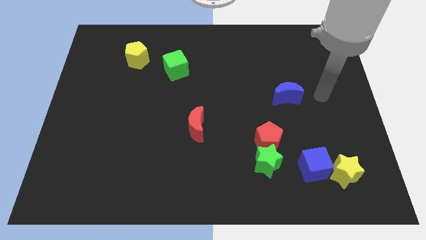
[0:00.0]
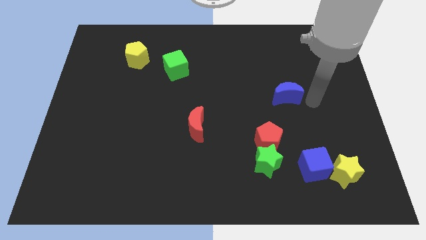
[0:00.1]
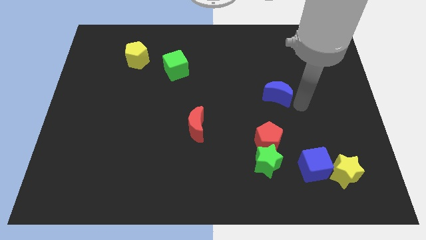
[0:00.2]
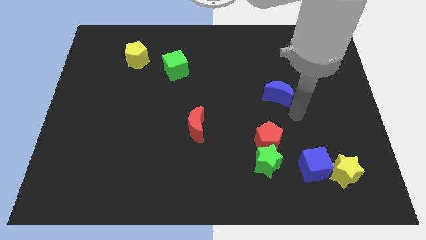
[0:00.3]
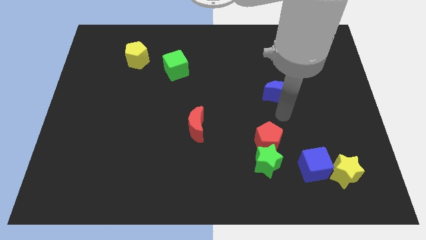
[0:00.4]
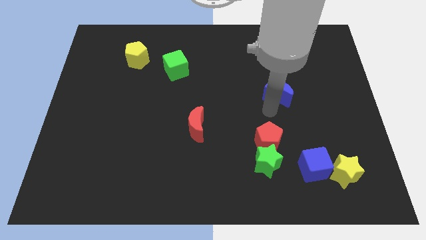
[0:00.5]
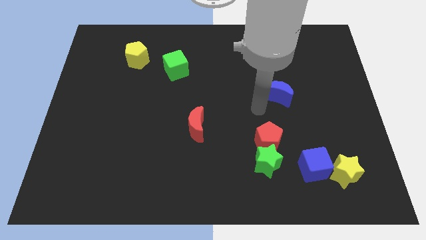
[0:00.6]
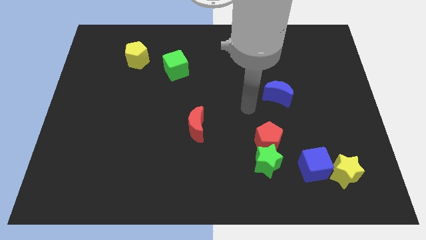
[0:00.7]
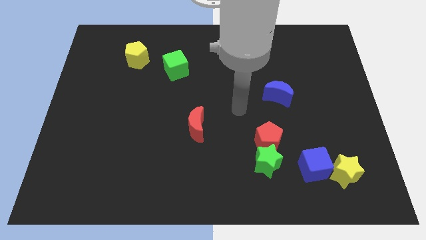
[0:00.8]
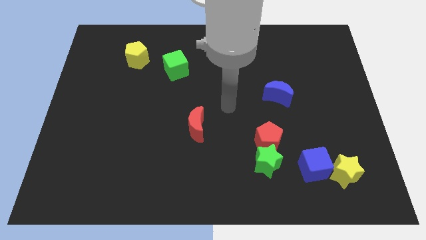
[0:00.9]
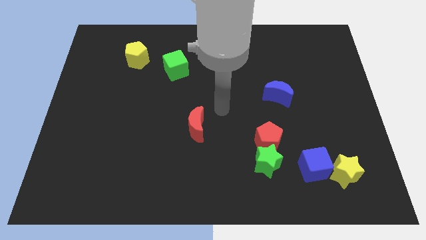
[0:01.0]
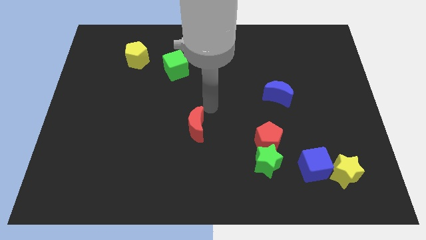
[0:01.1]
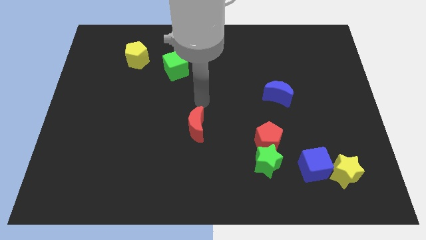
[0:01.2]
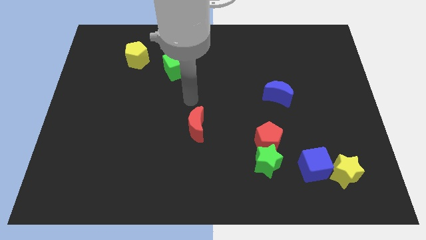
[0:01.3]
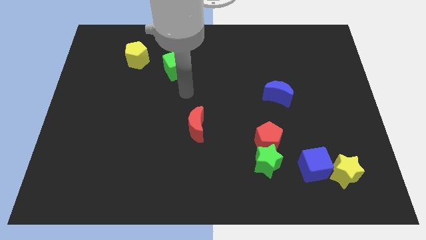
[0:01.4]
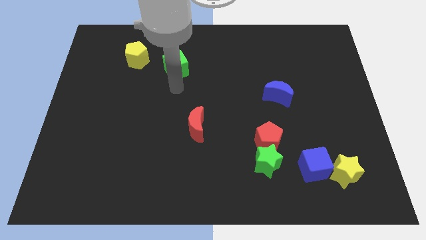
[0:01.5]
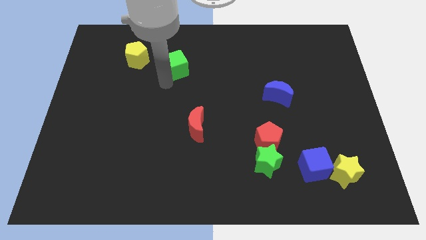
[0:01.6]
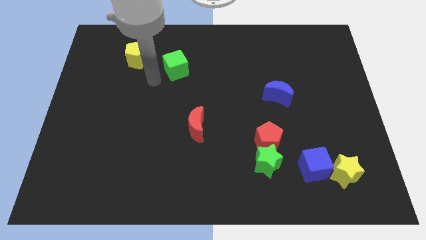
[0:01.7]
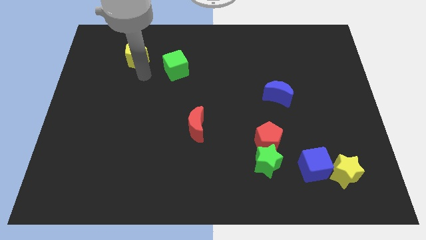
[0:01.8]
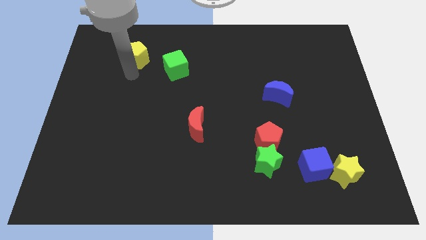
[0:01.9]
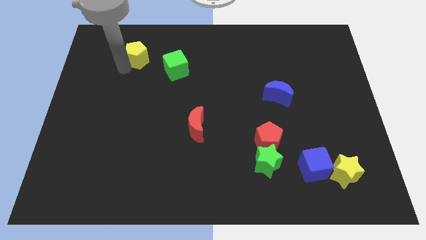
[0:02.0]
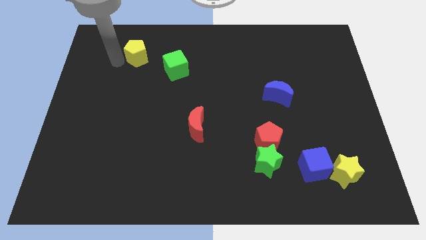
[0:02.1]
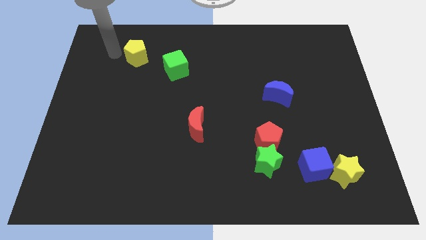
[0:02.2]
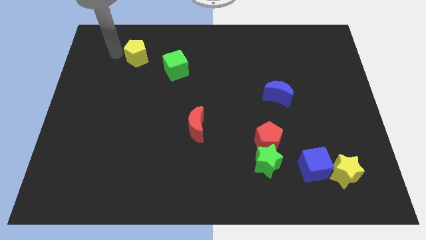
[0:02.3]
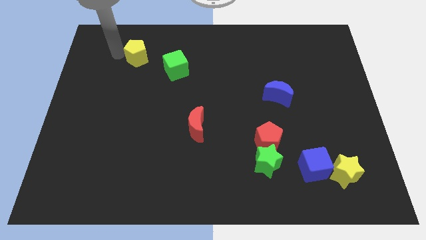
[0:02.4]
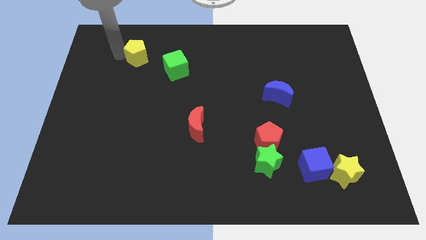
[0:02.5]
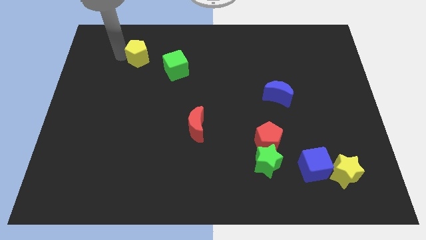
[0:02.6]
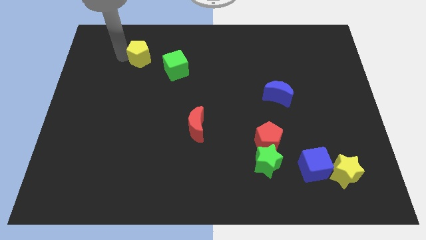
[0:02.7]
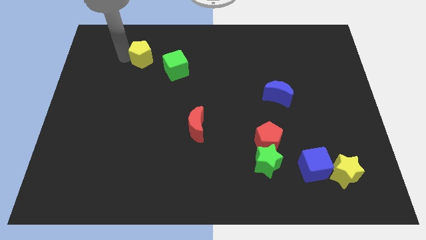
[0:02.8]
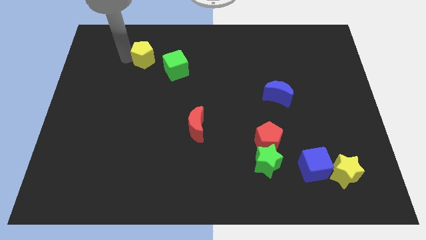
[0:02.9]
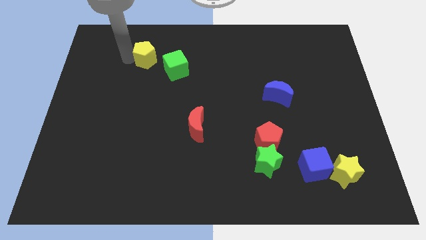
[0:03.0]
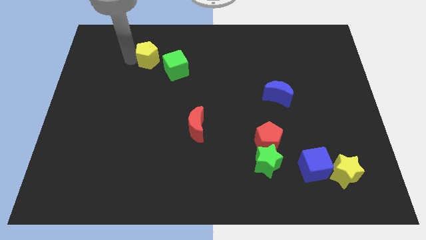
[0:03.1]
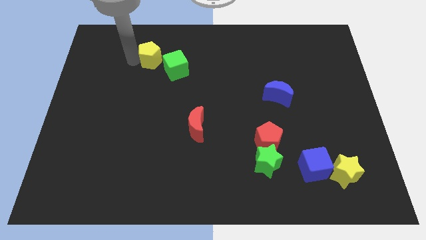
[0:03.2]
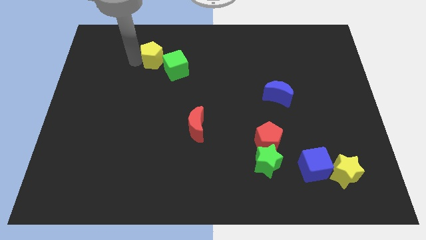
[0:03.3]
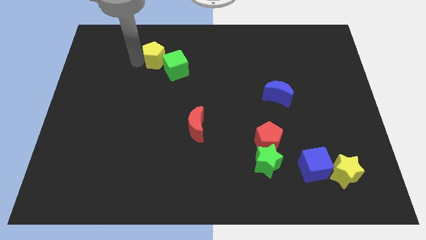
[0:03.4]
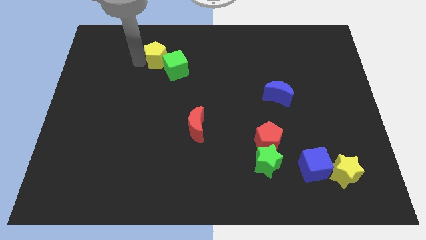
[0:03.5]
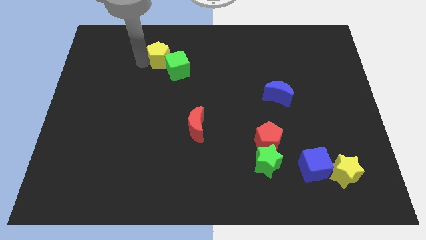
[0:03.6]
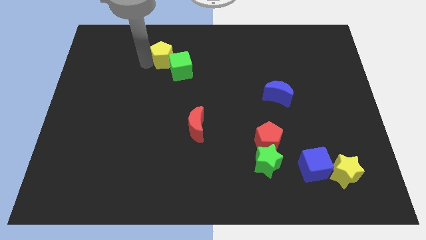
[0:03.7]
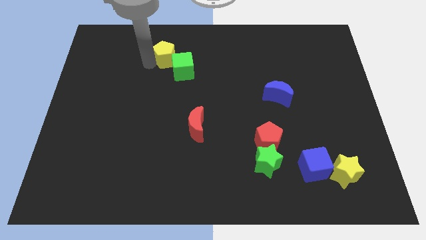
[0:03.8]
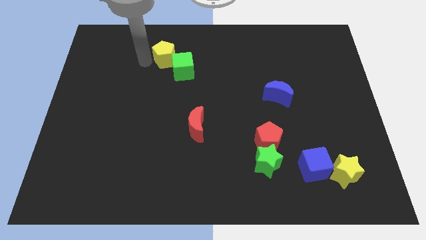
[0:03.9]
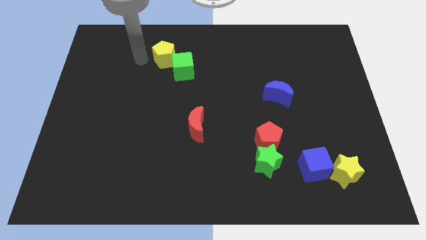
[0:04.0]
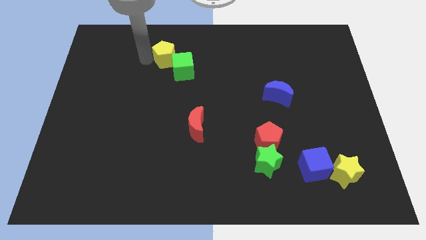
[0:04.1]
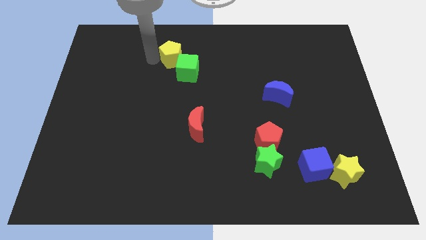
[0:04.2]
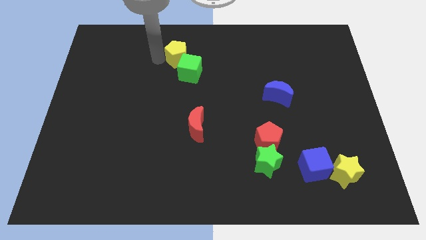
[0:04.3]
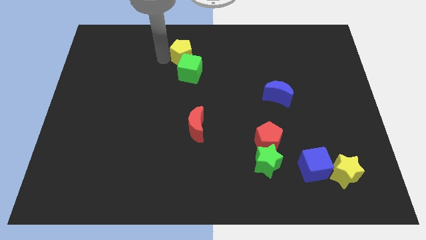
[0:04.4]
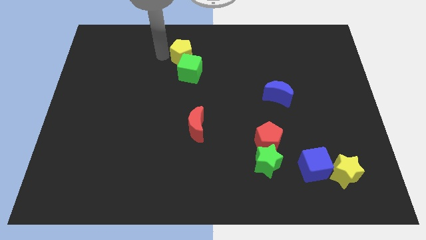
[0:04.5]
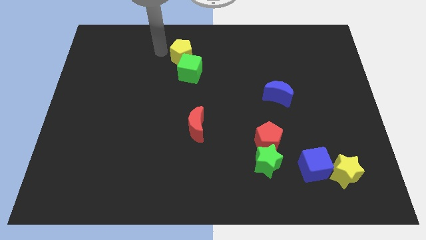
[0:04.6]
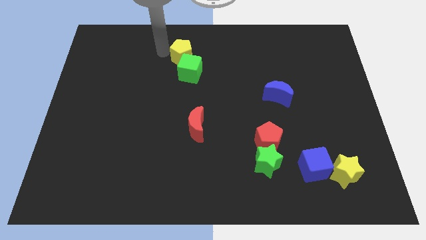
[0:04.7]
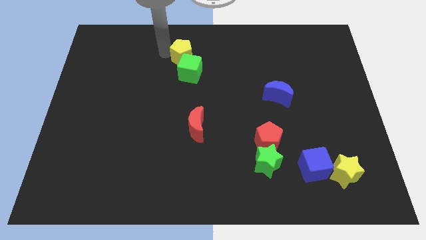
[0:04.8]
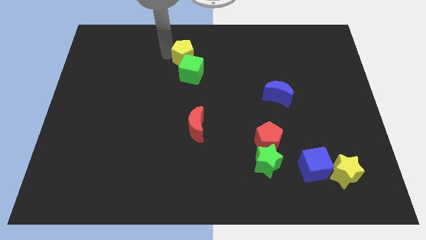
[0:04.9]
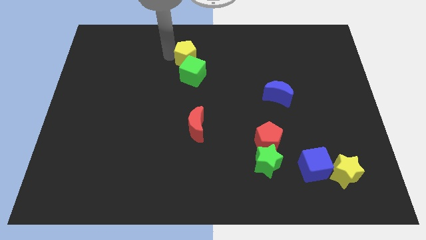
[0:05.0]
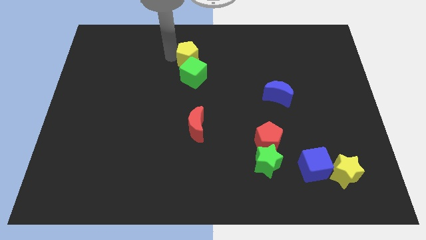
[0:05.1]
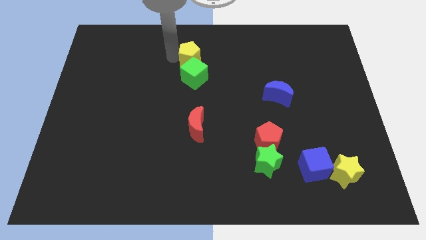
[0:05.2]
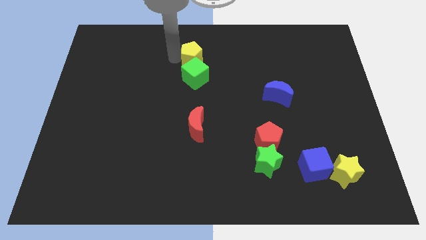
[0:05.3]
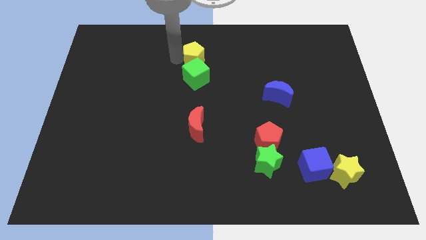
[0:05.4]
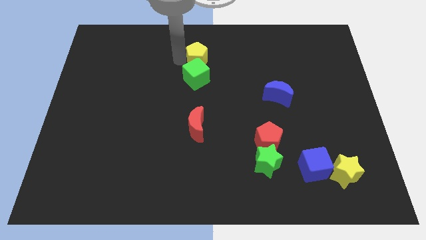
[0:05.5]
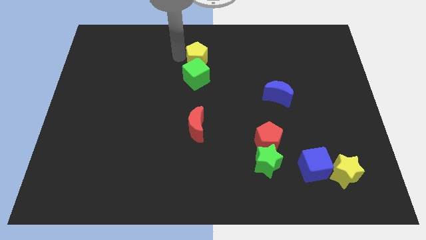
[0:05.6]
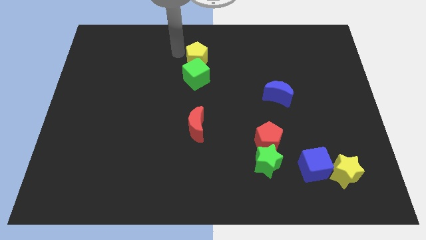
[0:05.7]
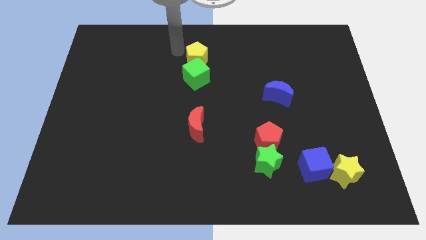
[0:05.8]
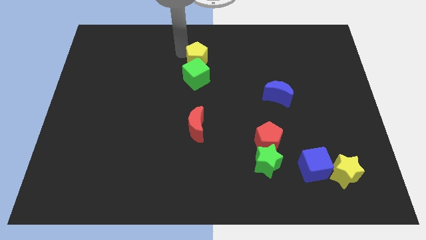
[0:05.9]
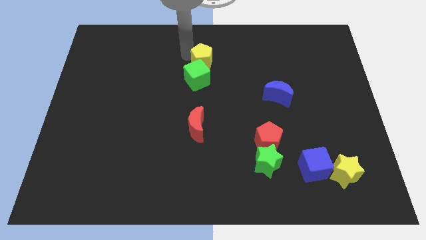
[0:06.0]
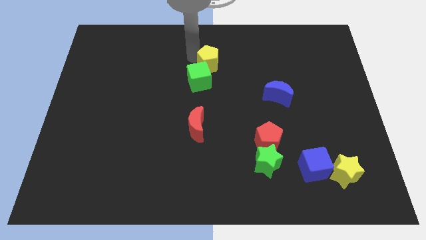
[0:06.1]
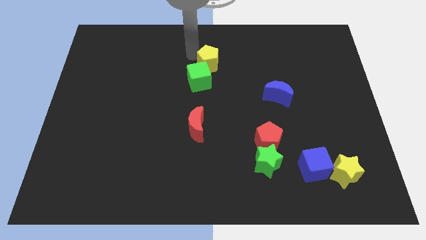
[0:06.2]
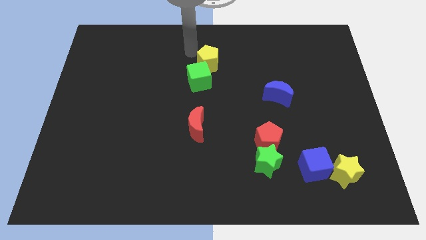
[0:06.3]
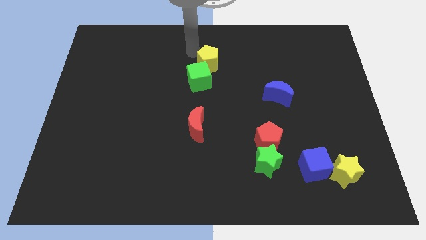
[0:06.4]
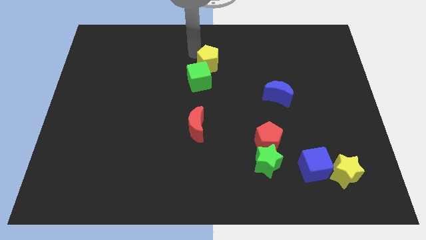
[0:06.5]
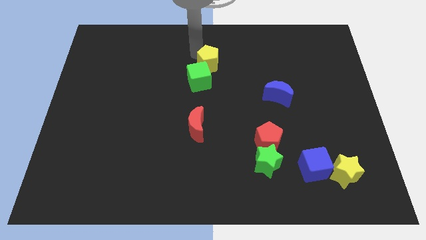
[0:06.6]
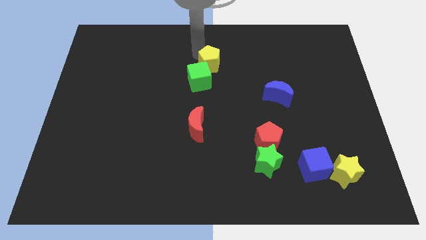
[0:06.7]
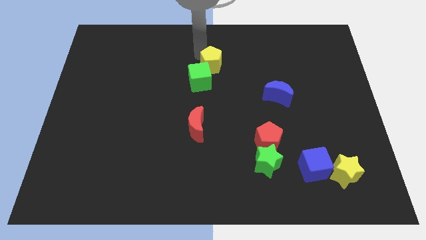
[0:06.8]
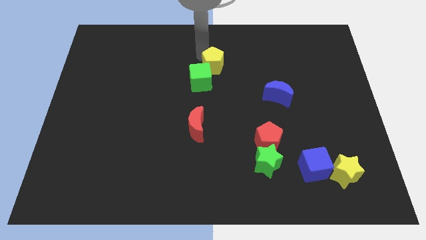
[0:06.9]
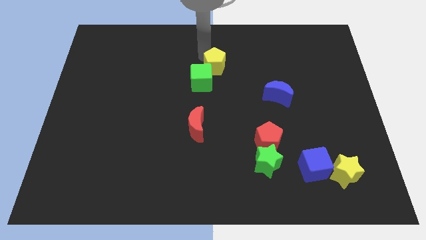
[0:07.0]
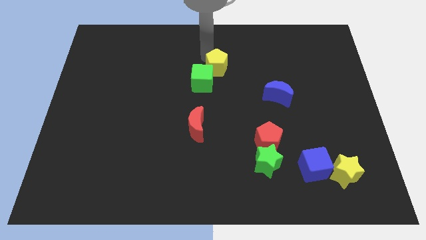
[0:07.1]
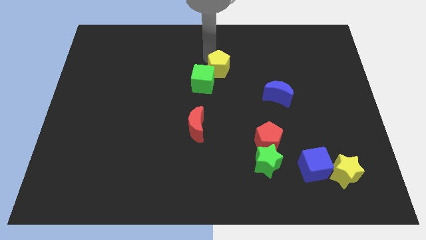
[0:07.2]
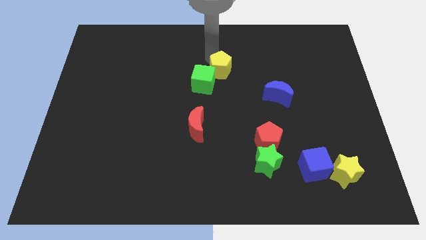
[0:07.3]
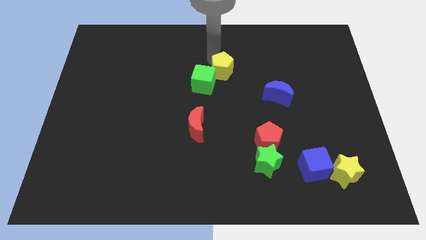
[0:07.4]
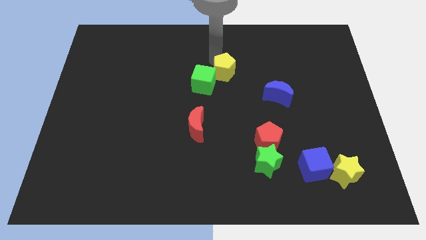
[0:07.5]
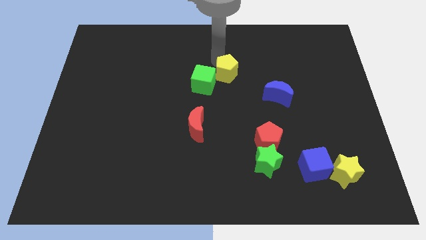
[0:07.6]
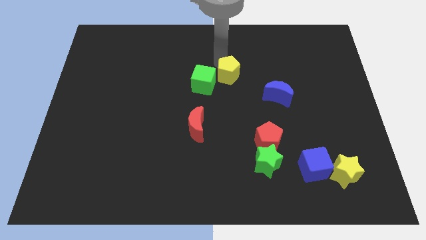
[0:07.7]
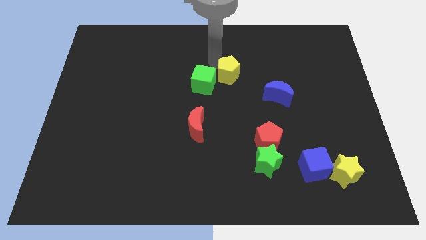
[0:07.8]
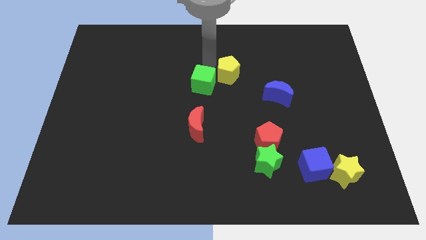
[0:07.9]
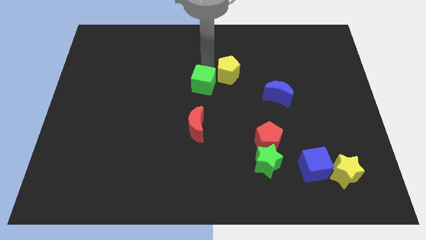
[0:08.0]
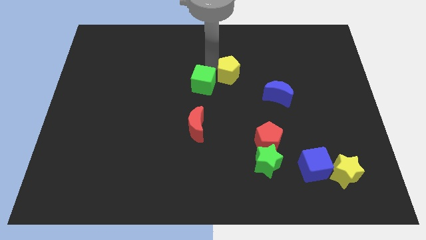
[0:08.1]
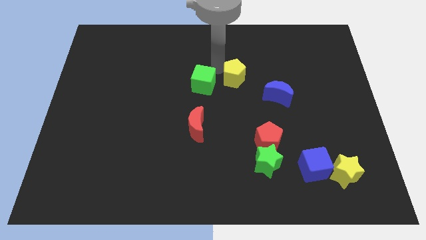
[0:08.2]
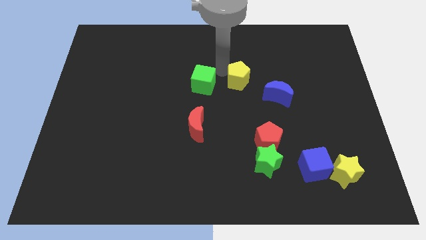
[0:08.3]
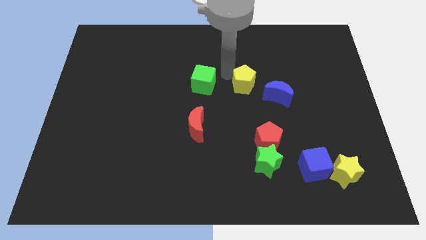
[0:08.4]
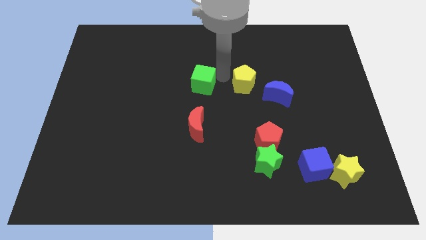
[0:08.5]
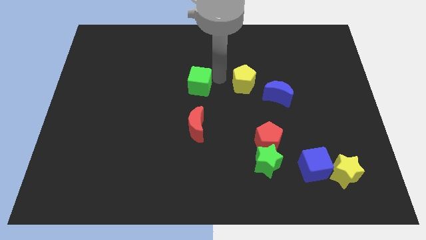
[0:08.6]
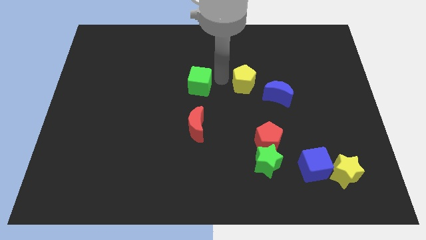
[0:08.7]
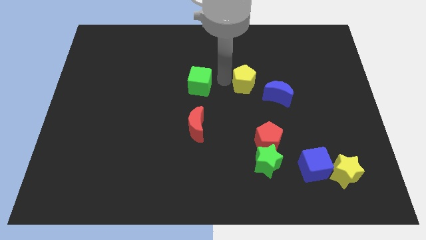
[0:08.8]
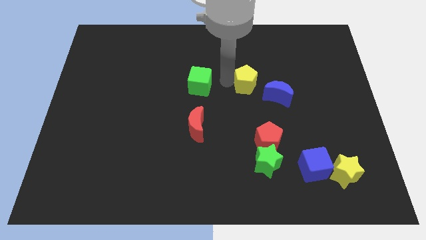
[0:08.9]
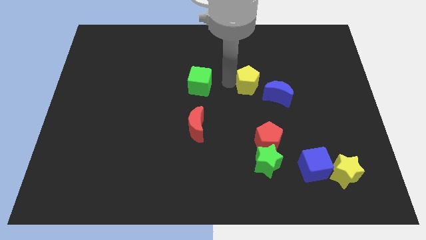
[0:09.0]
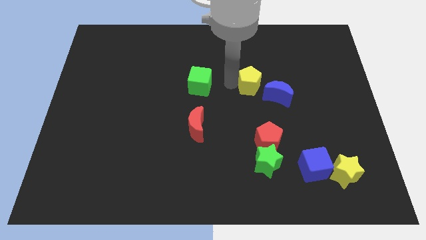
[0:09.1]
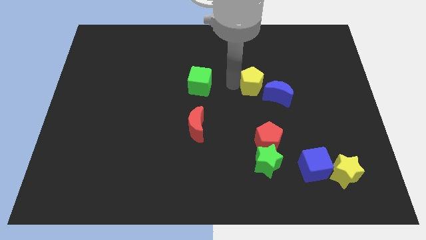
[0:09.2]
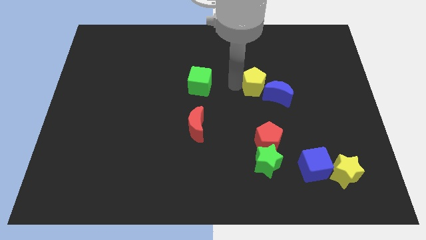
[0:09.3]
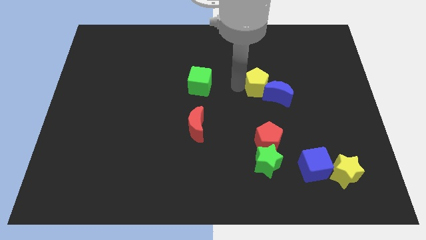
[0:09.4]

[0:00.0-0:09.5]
put the yellow pentagon to the blue moon
